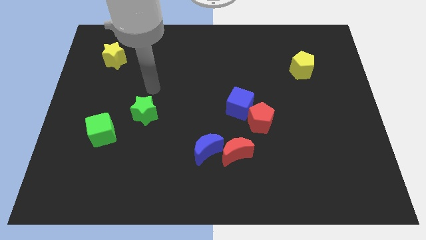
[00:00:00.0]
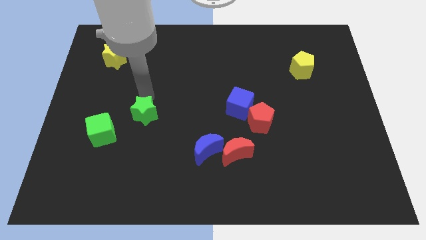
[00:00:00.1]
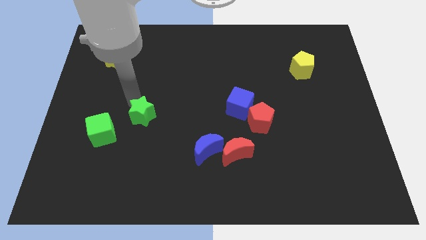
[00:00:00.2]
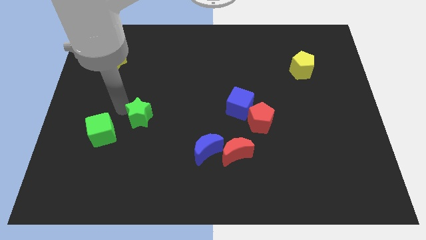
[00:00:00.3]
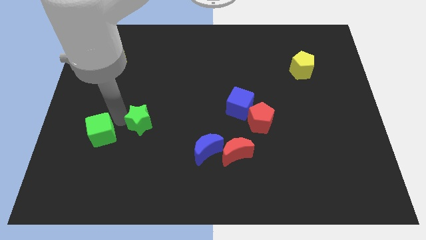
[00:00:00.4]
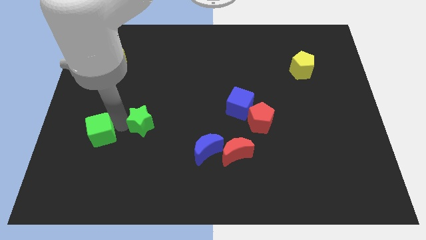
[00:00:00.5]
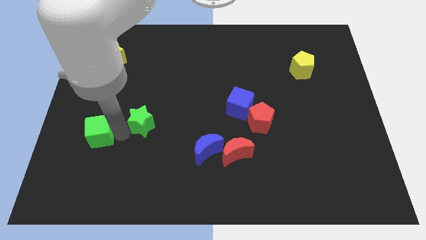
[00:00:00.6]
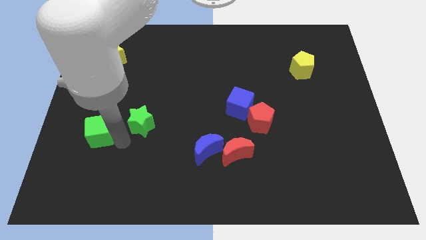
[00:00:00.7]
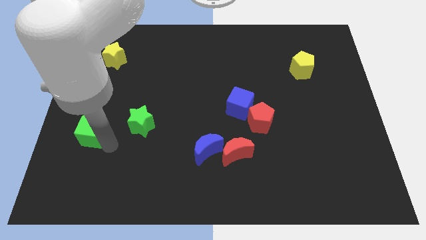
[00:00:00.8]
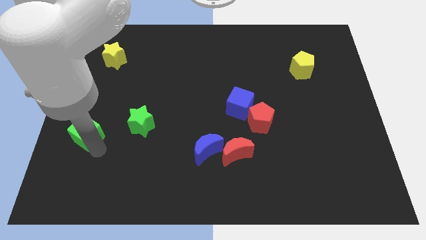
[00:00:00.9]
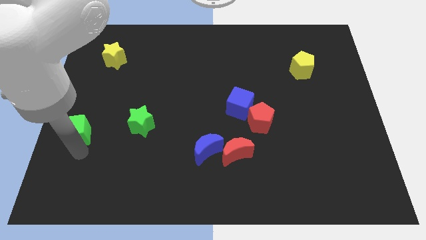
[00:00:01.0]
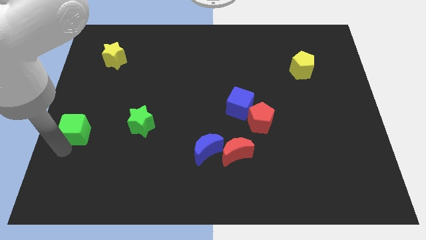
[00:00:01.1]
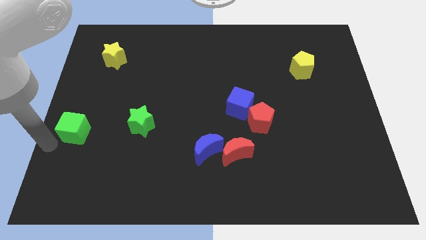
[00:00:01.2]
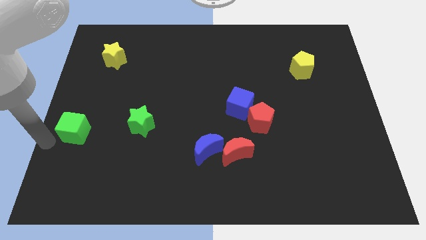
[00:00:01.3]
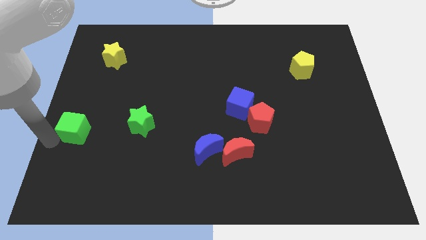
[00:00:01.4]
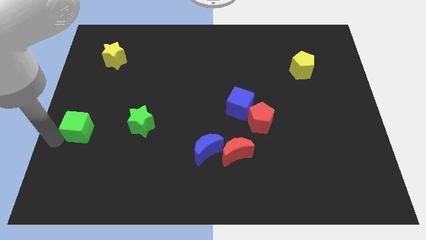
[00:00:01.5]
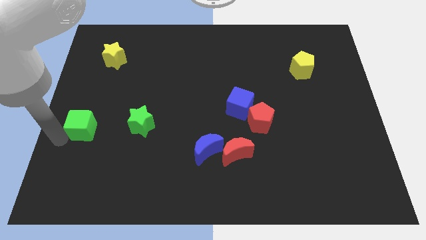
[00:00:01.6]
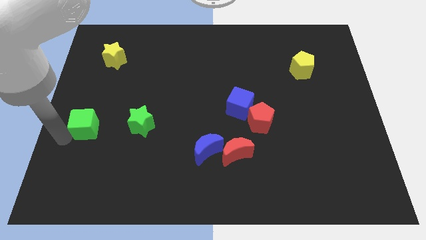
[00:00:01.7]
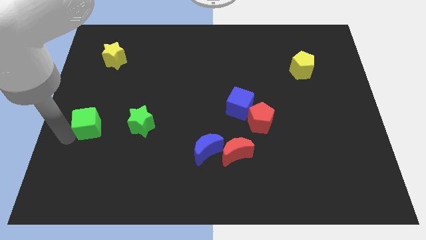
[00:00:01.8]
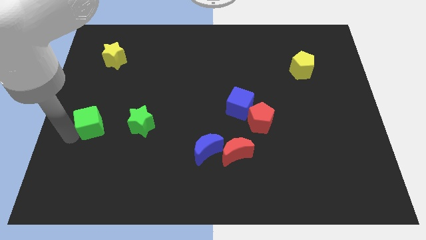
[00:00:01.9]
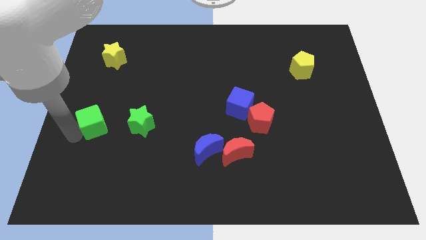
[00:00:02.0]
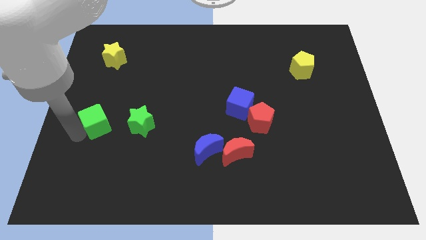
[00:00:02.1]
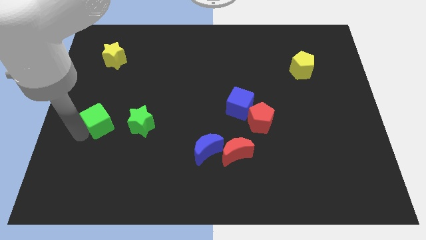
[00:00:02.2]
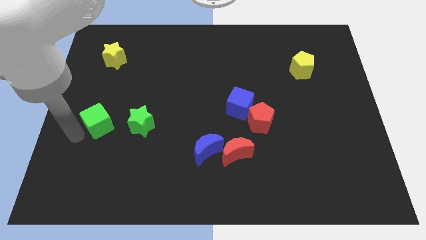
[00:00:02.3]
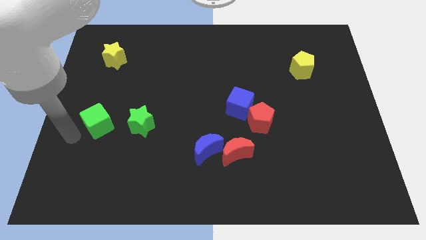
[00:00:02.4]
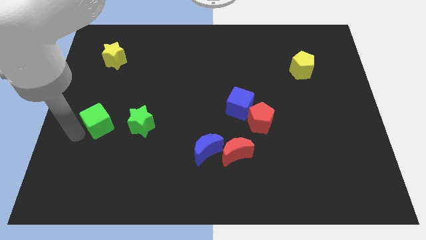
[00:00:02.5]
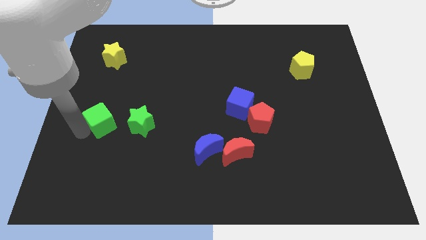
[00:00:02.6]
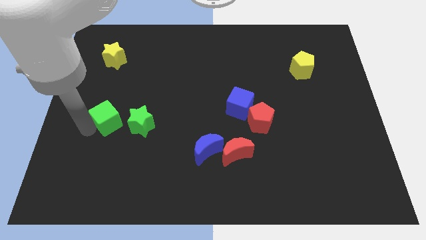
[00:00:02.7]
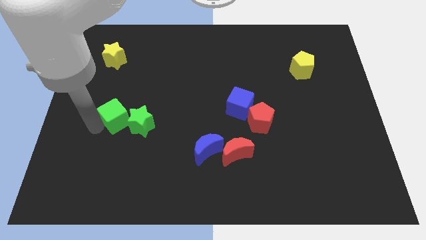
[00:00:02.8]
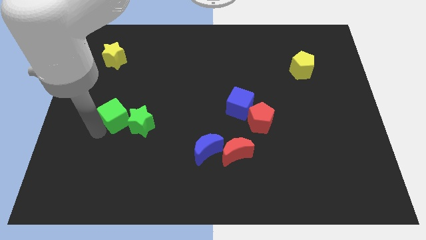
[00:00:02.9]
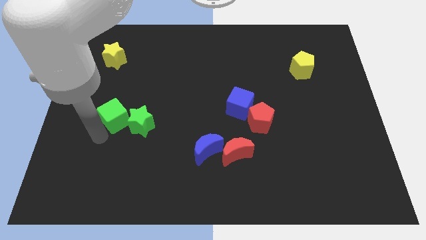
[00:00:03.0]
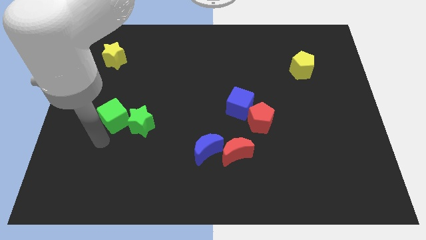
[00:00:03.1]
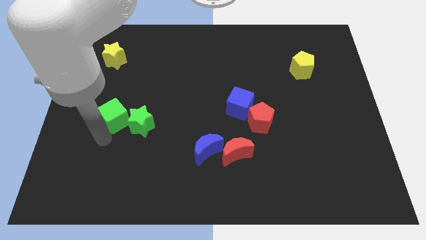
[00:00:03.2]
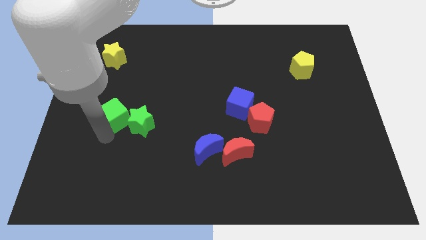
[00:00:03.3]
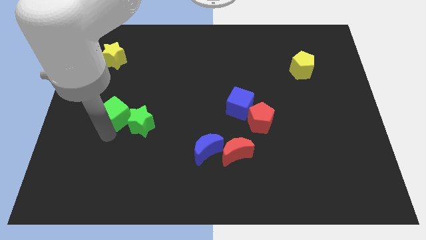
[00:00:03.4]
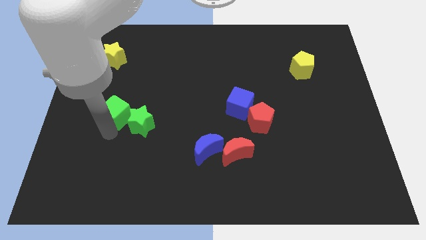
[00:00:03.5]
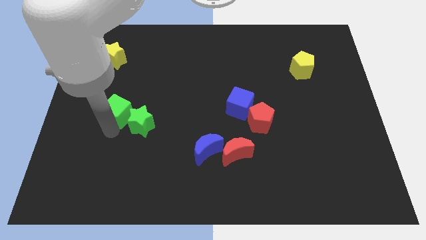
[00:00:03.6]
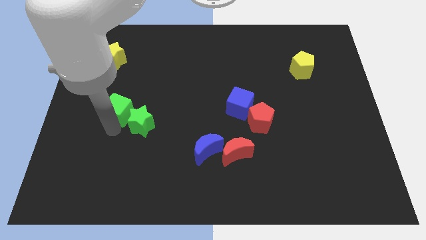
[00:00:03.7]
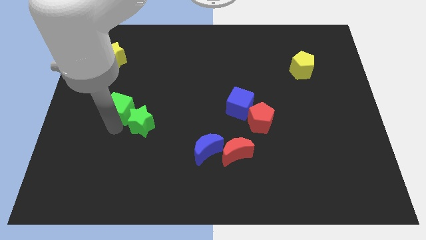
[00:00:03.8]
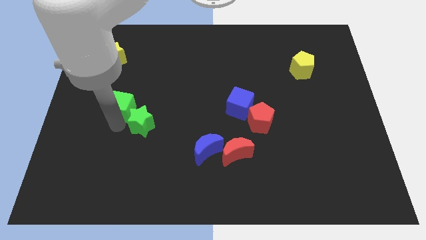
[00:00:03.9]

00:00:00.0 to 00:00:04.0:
slightly move the green cube up and then to the right

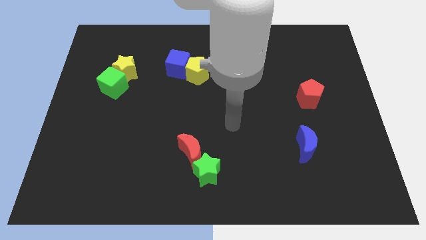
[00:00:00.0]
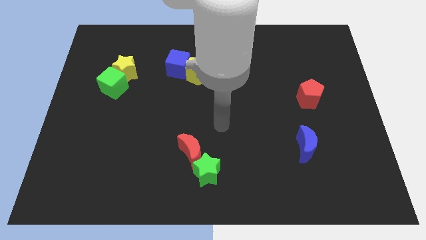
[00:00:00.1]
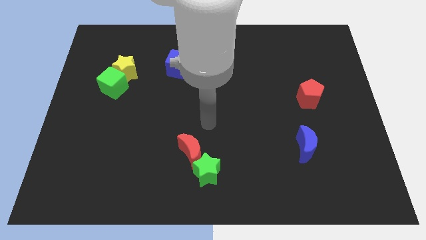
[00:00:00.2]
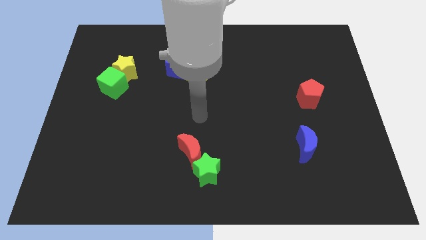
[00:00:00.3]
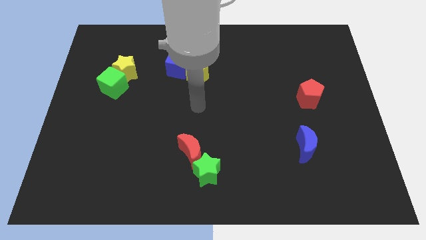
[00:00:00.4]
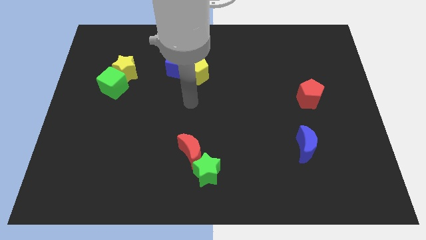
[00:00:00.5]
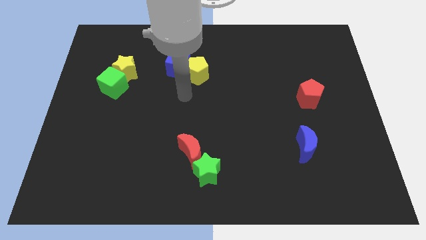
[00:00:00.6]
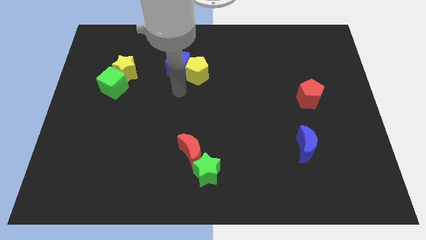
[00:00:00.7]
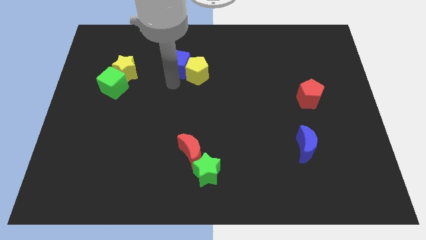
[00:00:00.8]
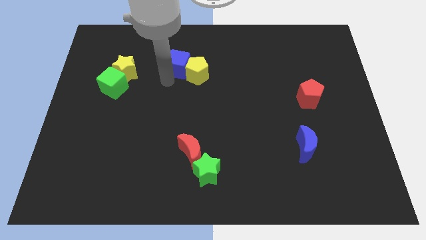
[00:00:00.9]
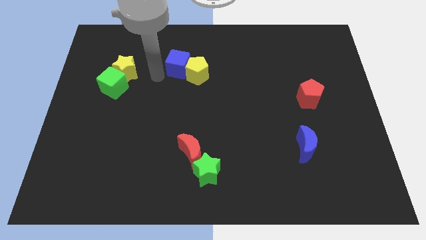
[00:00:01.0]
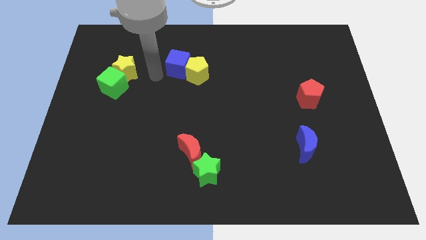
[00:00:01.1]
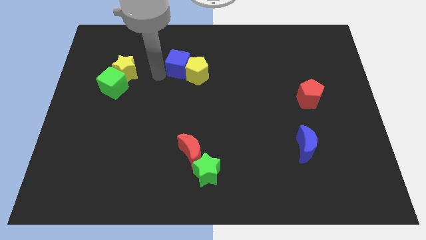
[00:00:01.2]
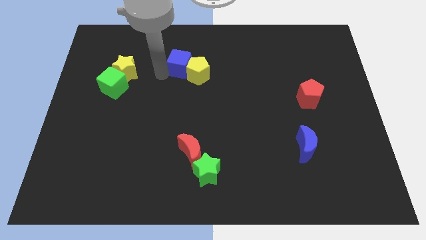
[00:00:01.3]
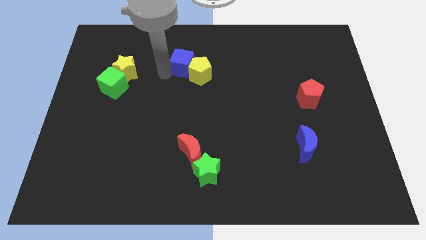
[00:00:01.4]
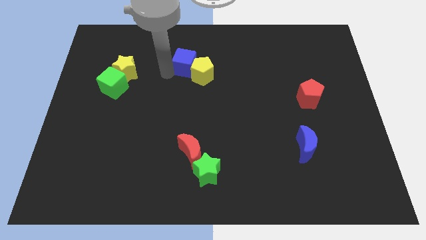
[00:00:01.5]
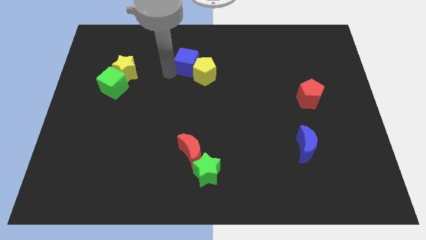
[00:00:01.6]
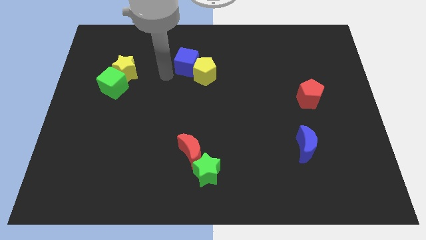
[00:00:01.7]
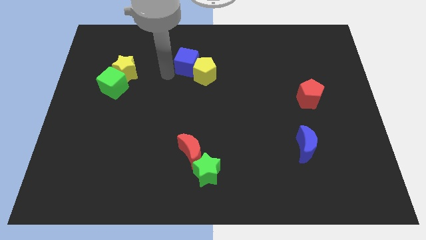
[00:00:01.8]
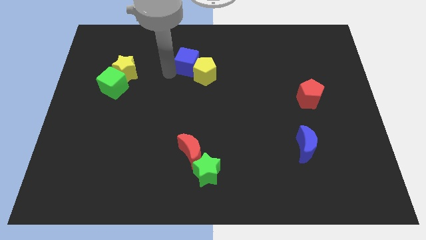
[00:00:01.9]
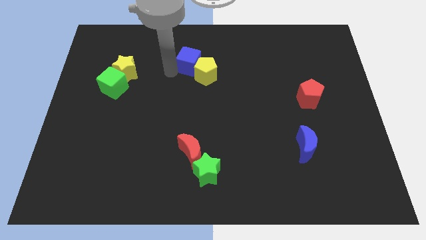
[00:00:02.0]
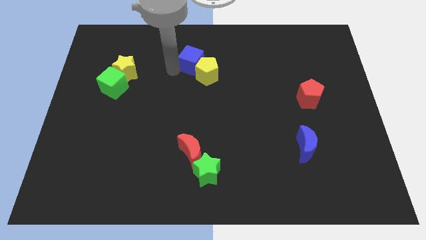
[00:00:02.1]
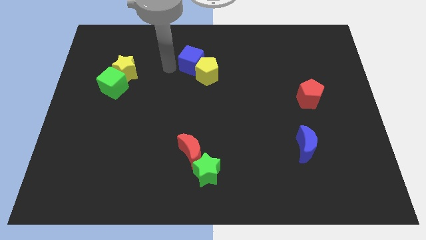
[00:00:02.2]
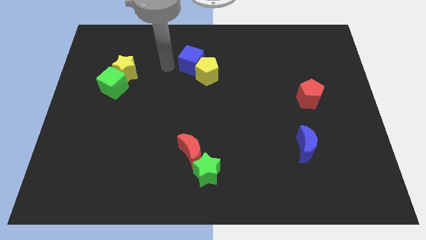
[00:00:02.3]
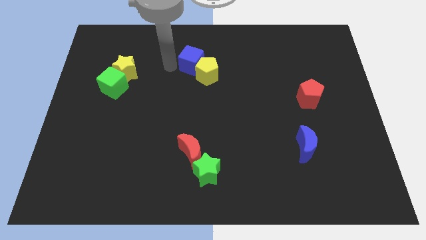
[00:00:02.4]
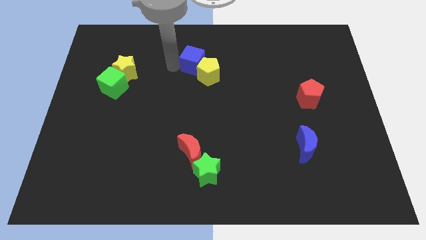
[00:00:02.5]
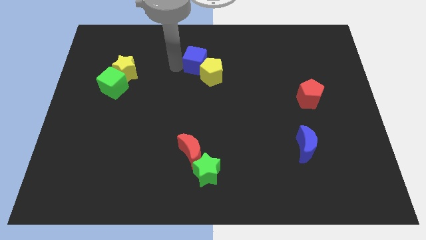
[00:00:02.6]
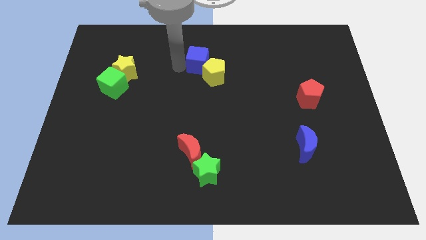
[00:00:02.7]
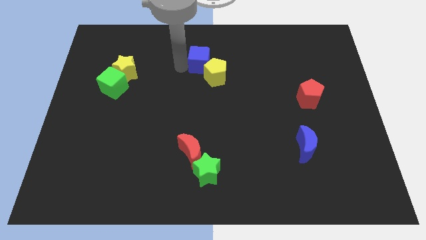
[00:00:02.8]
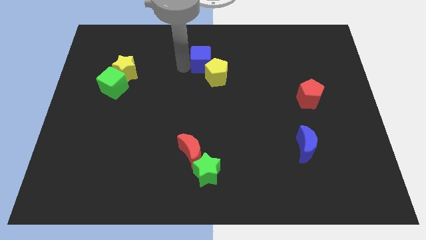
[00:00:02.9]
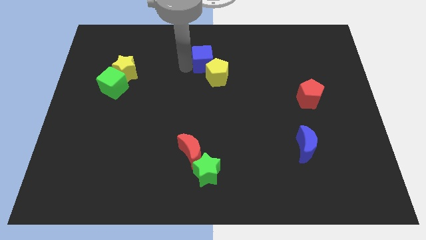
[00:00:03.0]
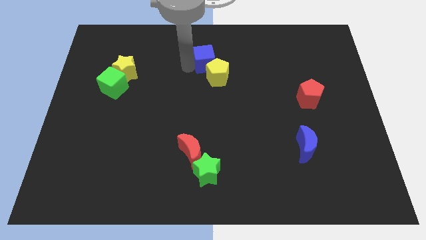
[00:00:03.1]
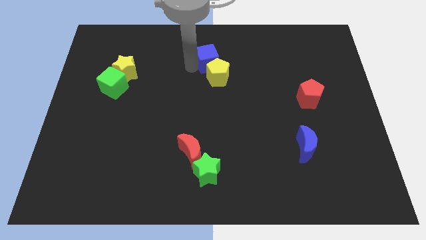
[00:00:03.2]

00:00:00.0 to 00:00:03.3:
slide the blue cube a bit to the right

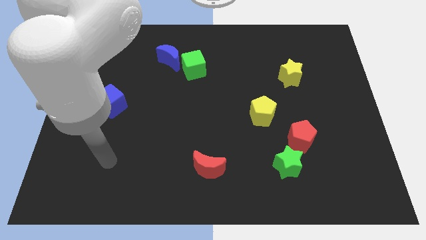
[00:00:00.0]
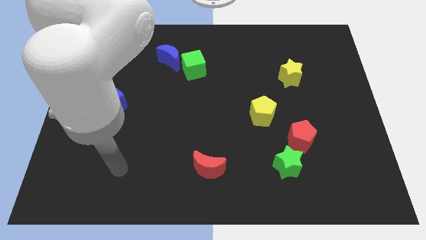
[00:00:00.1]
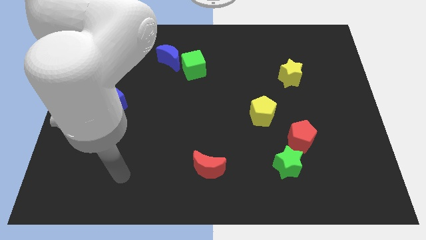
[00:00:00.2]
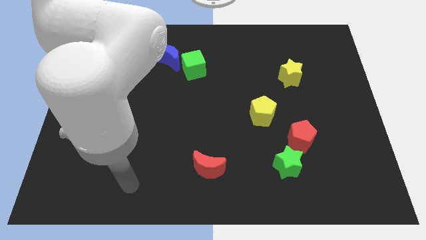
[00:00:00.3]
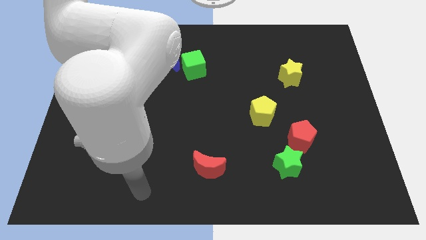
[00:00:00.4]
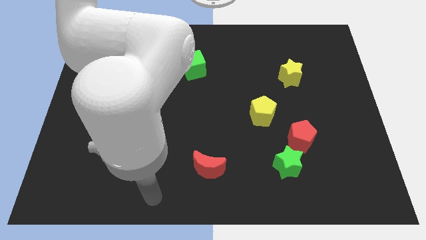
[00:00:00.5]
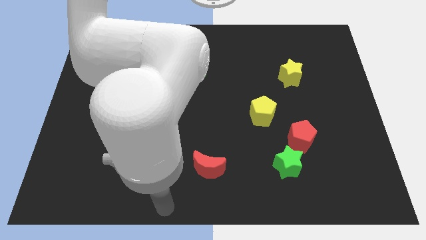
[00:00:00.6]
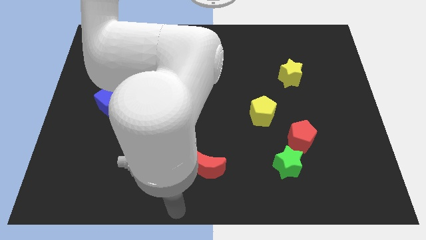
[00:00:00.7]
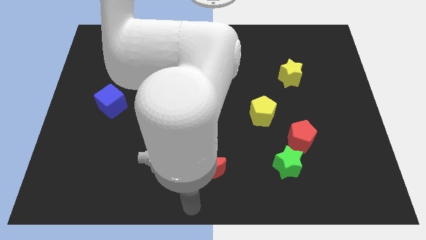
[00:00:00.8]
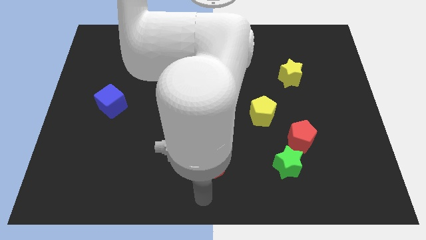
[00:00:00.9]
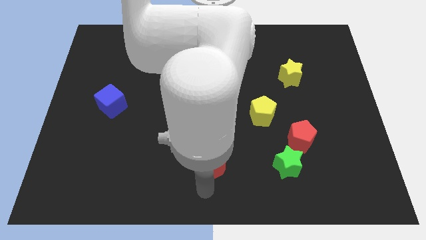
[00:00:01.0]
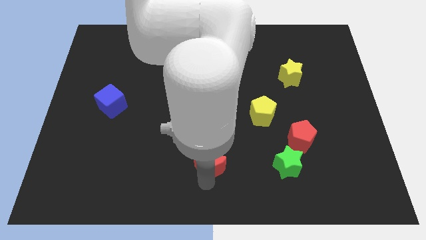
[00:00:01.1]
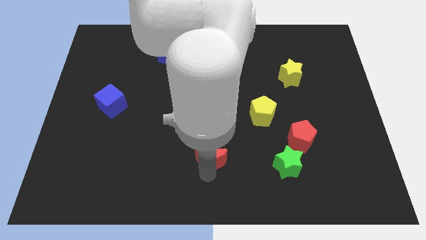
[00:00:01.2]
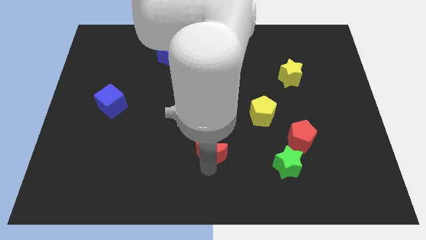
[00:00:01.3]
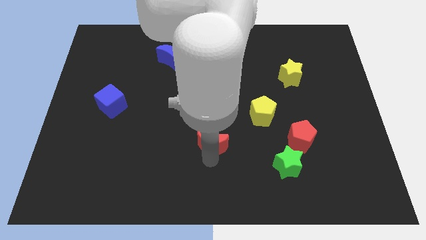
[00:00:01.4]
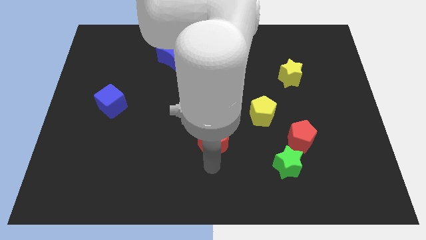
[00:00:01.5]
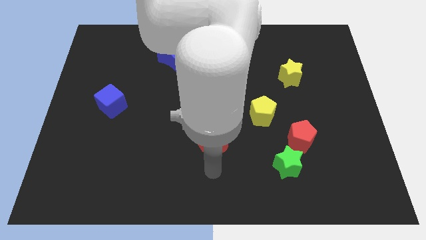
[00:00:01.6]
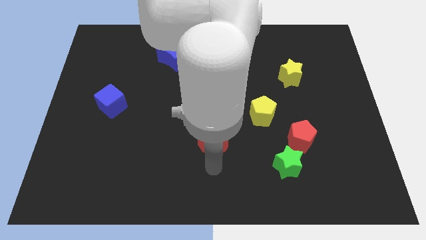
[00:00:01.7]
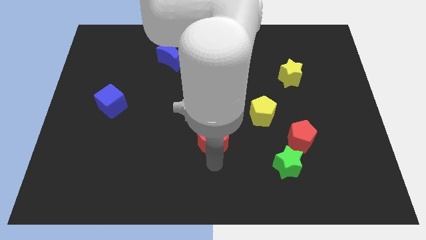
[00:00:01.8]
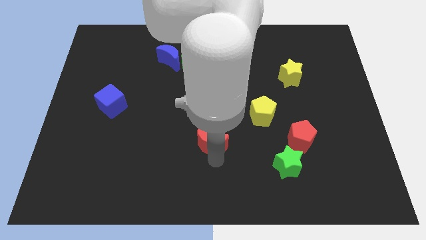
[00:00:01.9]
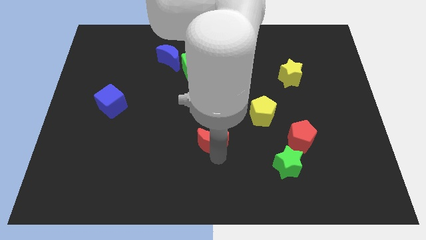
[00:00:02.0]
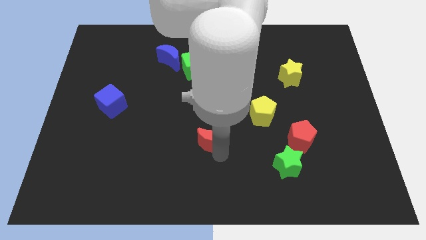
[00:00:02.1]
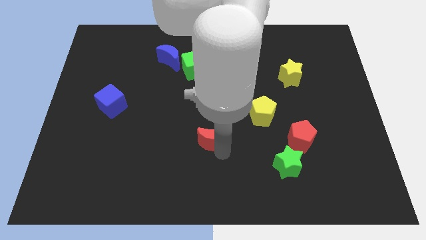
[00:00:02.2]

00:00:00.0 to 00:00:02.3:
slightly slide the red moon upwards
